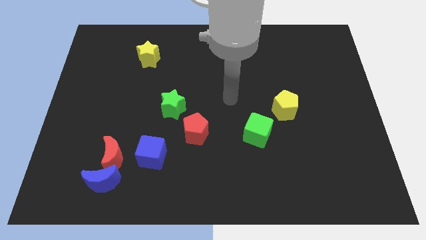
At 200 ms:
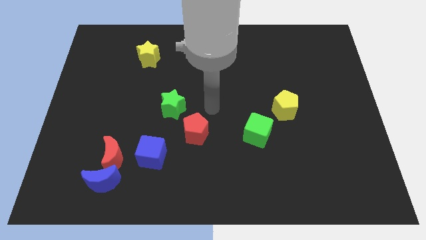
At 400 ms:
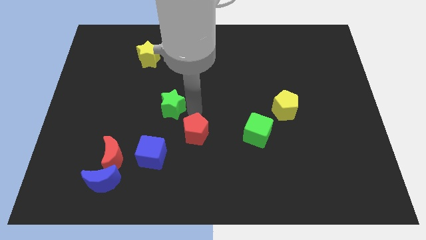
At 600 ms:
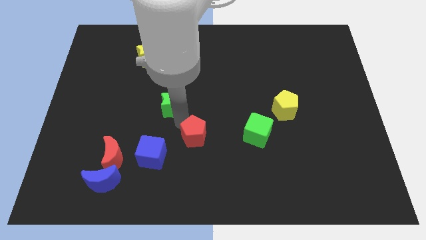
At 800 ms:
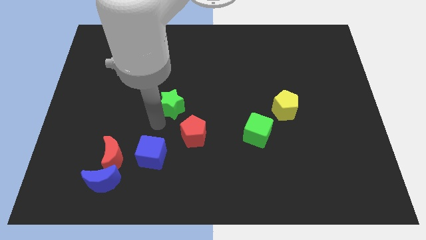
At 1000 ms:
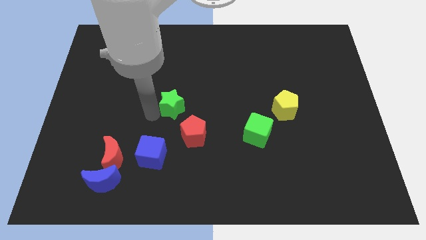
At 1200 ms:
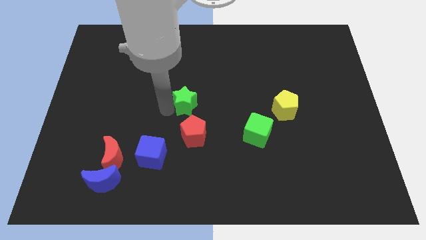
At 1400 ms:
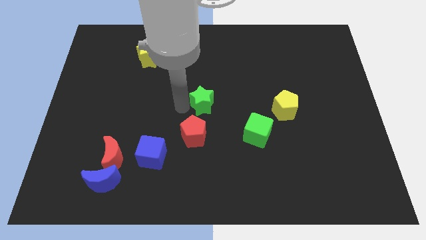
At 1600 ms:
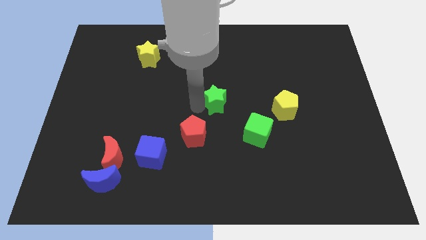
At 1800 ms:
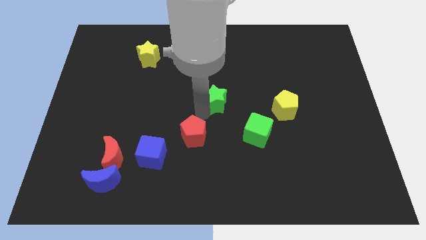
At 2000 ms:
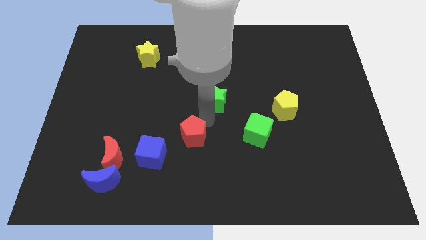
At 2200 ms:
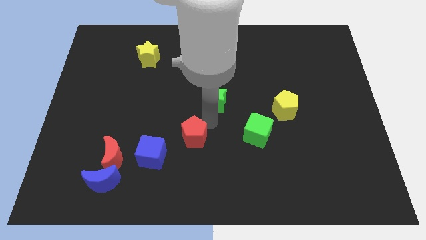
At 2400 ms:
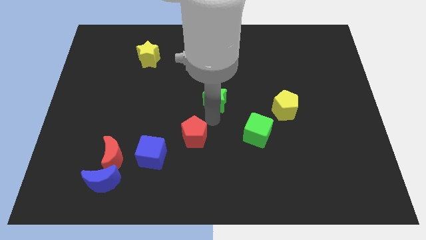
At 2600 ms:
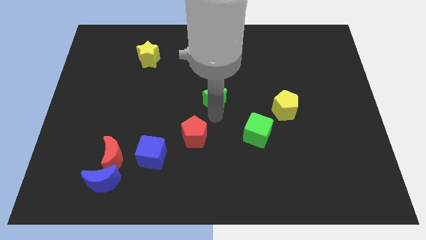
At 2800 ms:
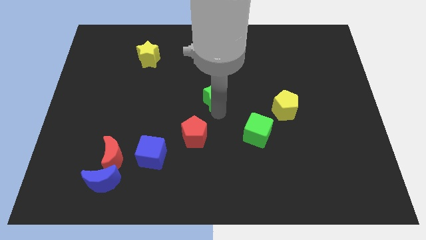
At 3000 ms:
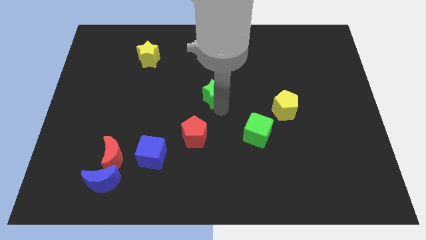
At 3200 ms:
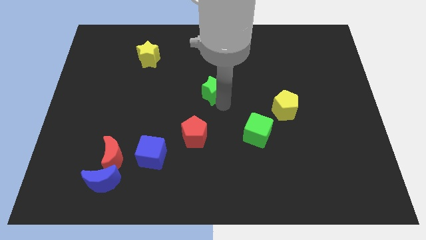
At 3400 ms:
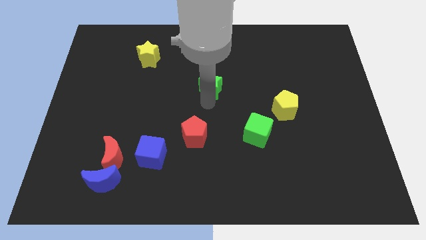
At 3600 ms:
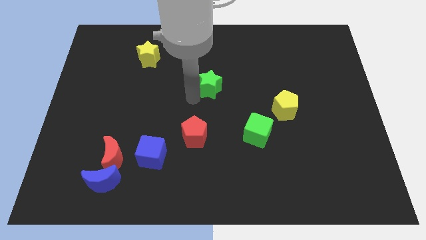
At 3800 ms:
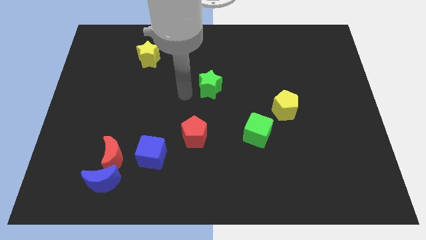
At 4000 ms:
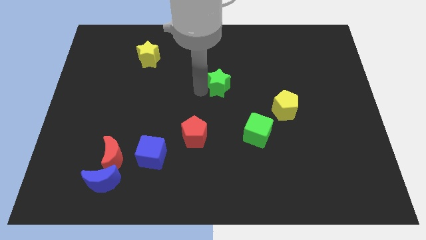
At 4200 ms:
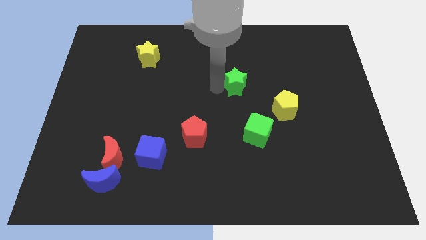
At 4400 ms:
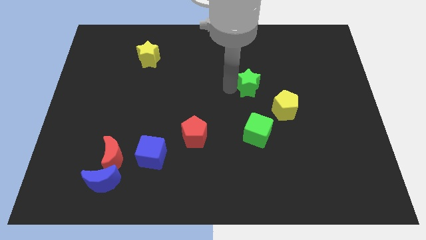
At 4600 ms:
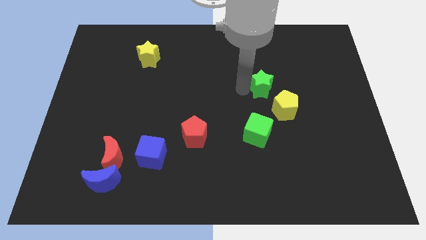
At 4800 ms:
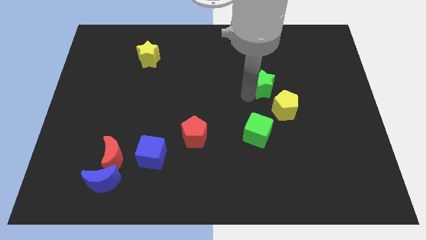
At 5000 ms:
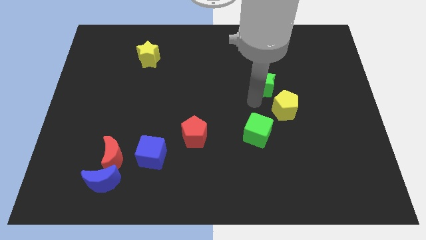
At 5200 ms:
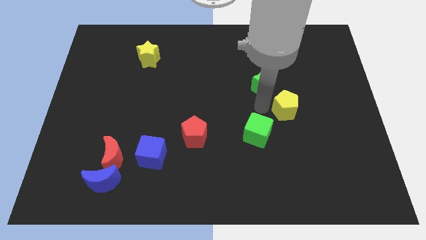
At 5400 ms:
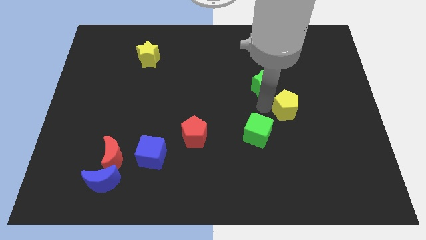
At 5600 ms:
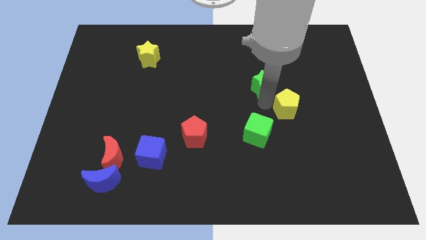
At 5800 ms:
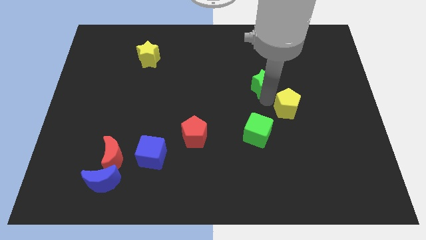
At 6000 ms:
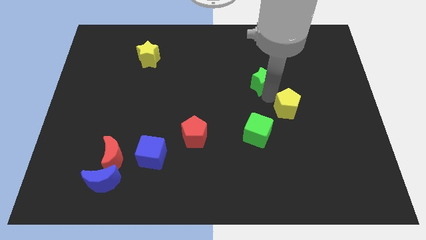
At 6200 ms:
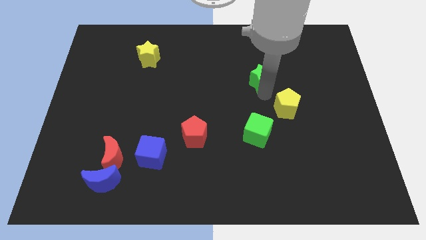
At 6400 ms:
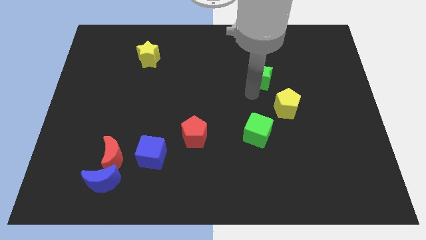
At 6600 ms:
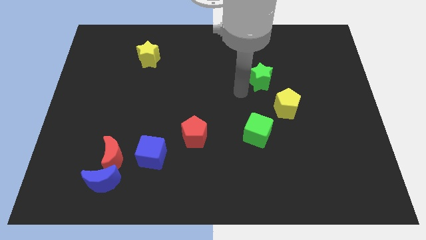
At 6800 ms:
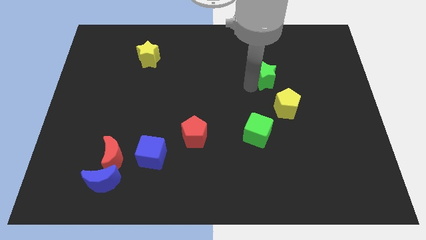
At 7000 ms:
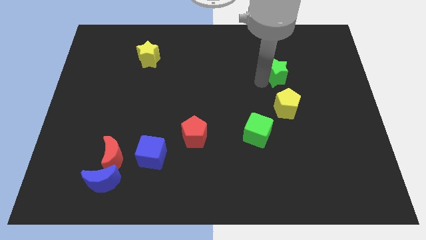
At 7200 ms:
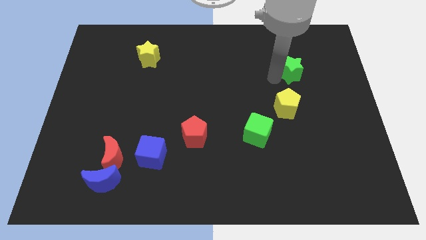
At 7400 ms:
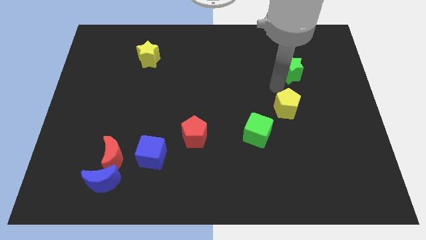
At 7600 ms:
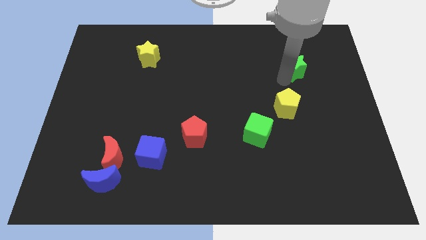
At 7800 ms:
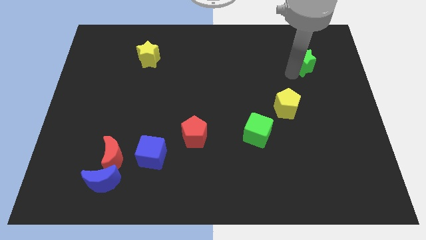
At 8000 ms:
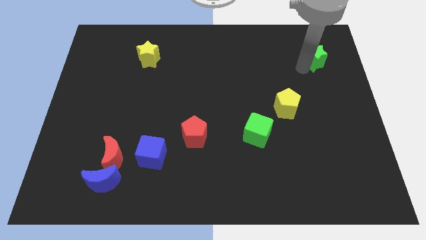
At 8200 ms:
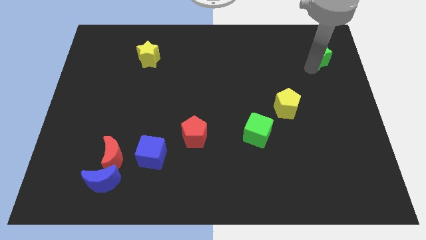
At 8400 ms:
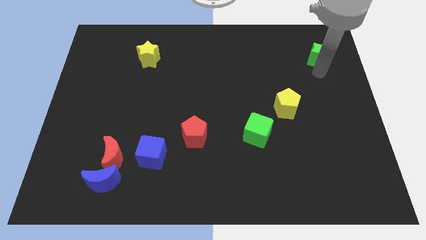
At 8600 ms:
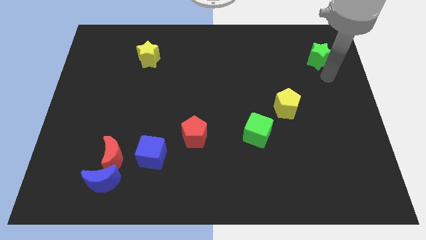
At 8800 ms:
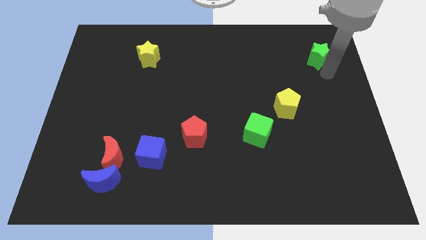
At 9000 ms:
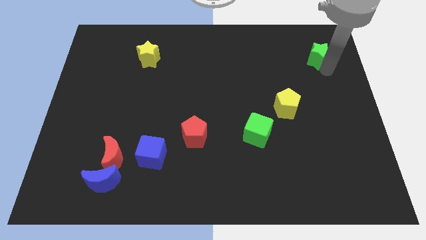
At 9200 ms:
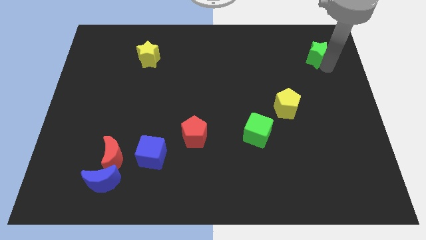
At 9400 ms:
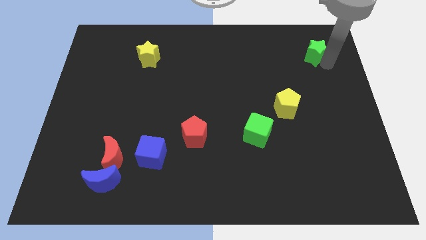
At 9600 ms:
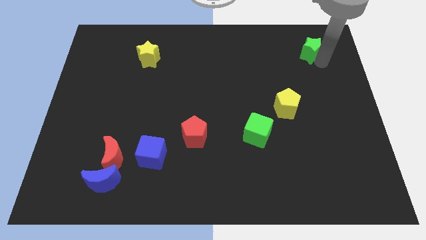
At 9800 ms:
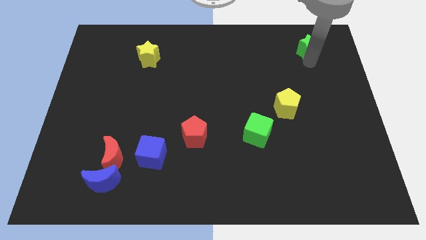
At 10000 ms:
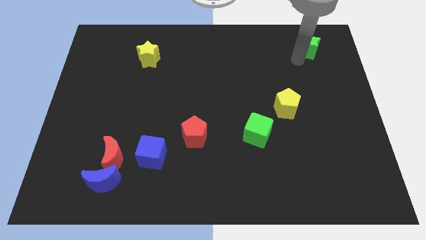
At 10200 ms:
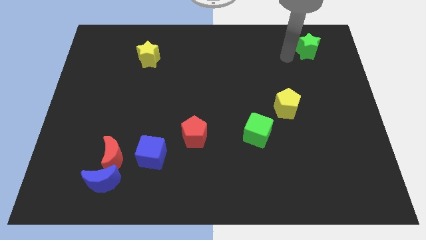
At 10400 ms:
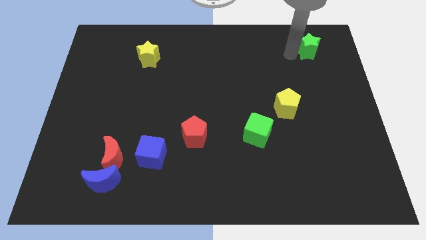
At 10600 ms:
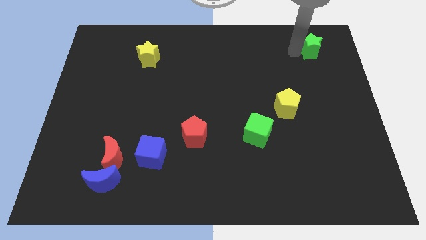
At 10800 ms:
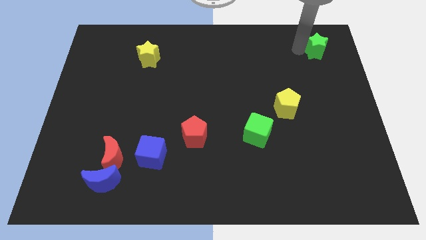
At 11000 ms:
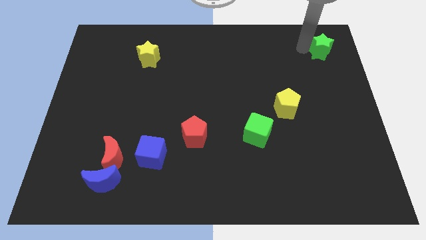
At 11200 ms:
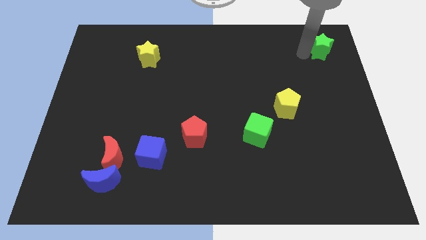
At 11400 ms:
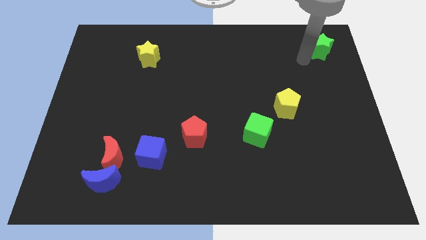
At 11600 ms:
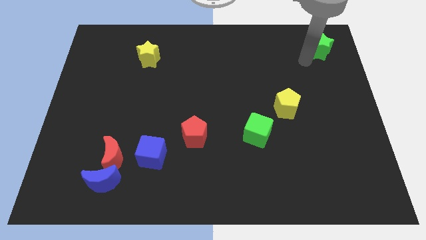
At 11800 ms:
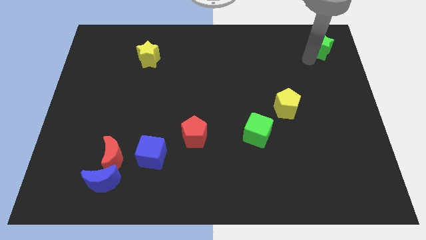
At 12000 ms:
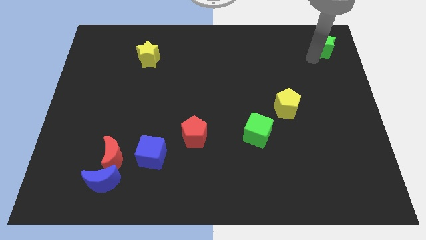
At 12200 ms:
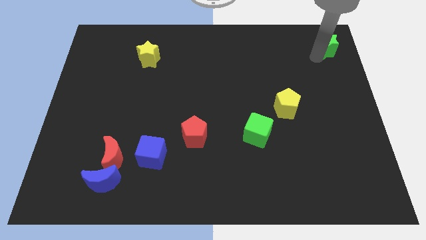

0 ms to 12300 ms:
push the green star to the upper right corner

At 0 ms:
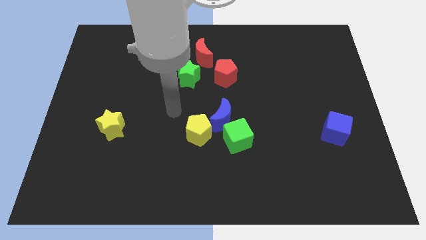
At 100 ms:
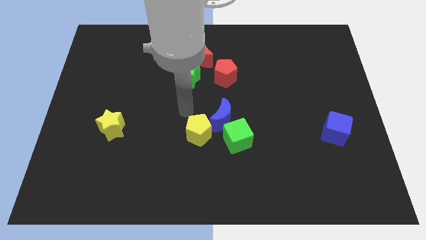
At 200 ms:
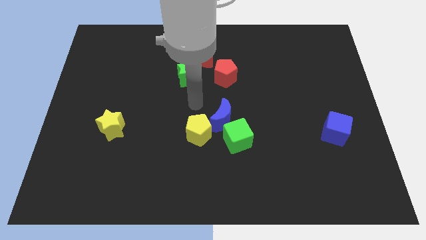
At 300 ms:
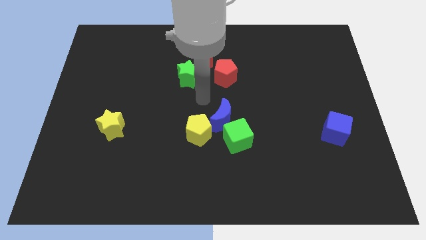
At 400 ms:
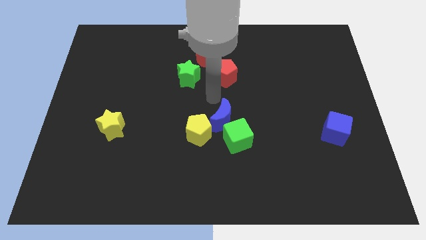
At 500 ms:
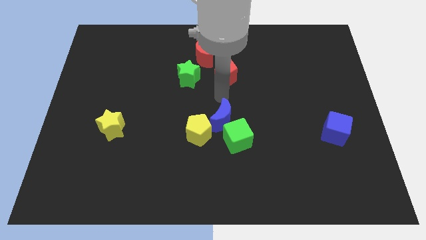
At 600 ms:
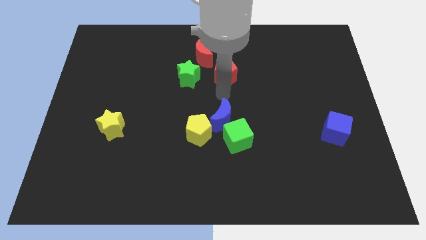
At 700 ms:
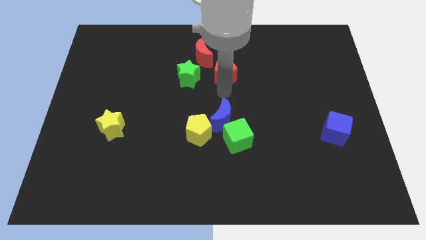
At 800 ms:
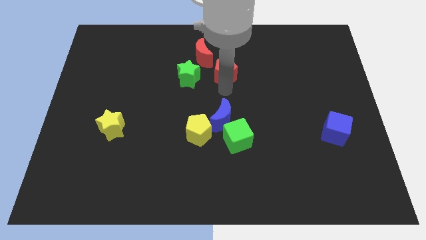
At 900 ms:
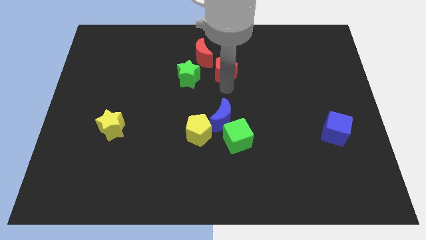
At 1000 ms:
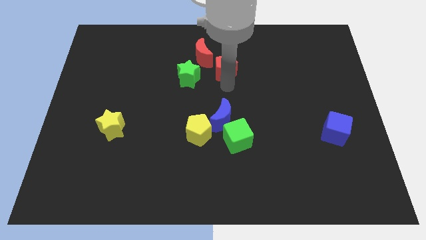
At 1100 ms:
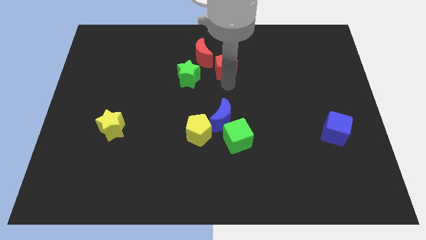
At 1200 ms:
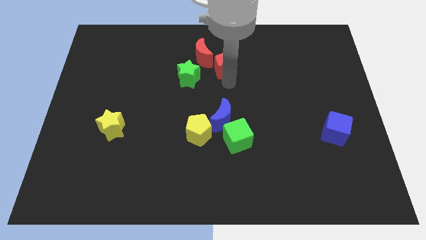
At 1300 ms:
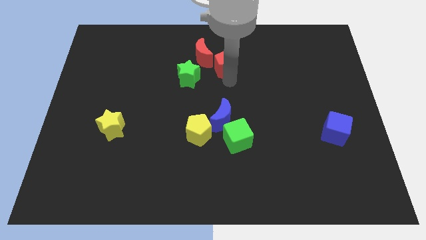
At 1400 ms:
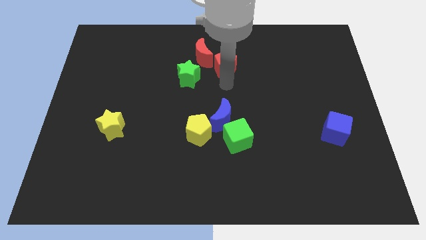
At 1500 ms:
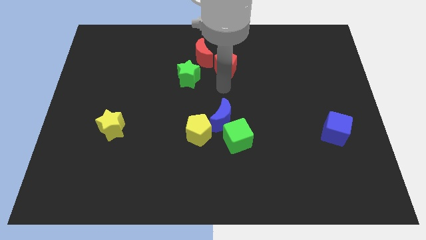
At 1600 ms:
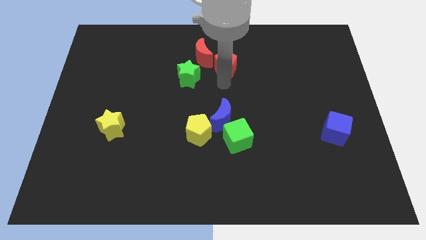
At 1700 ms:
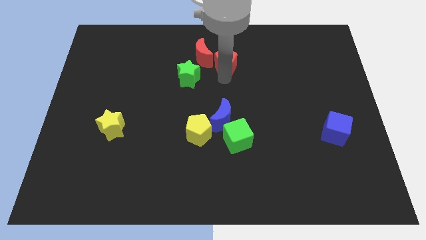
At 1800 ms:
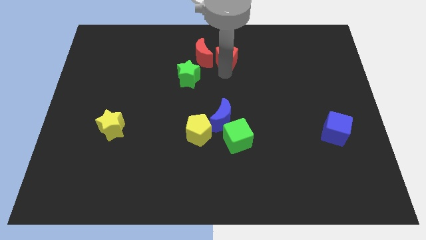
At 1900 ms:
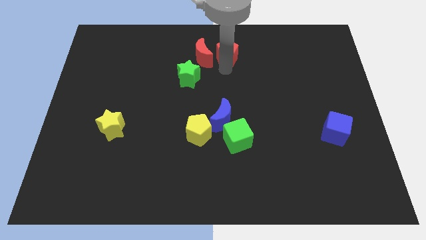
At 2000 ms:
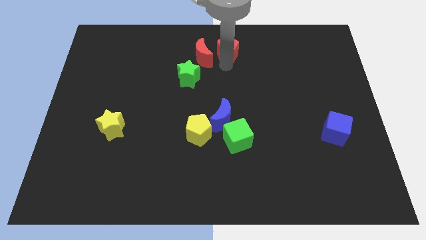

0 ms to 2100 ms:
slide the red pentagon to the top side
